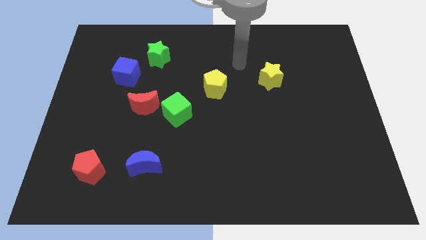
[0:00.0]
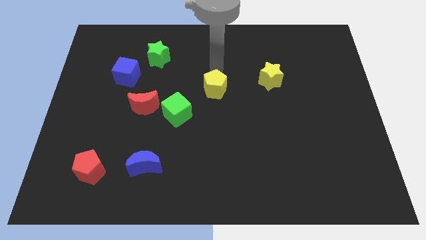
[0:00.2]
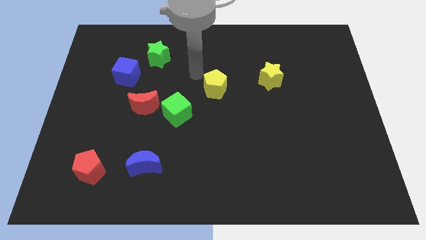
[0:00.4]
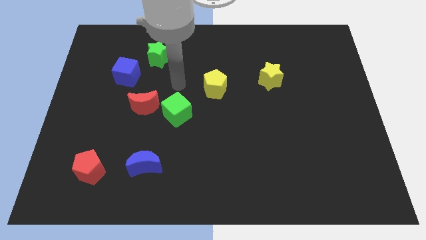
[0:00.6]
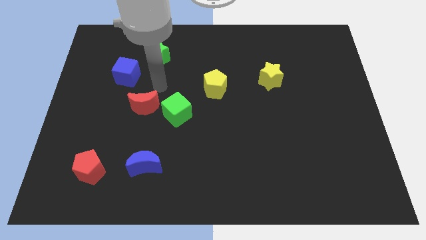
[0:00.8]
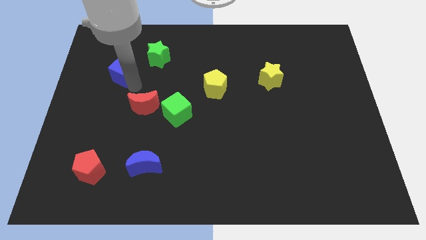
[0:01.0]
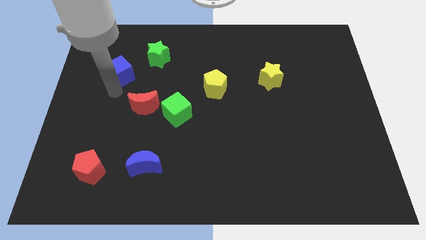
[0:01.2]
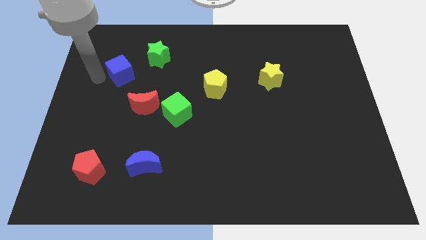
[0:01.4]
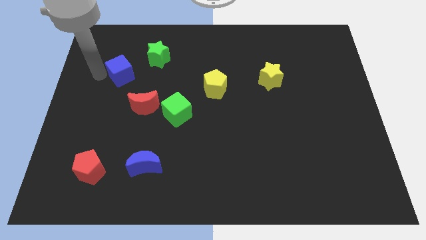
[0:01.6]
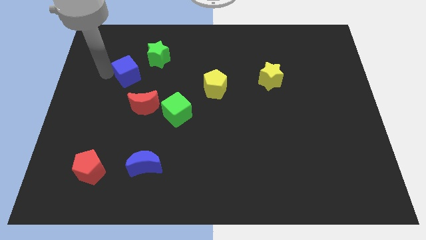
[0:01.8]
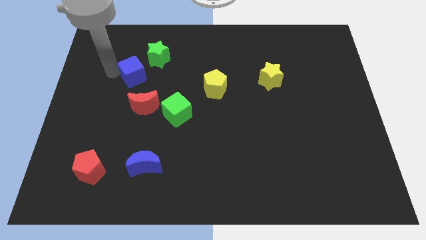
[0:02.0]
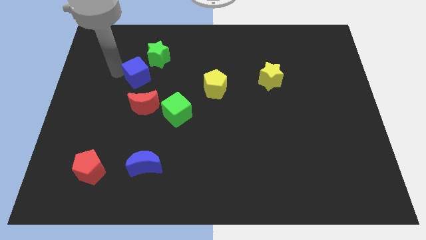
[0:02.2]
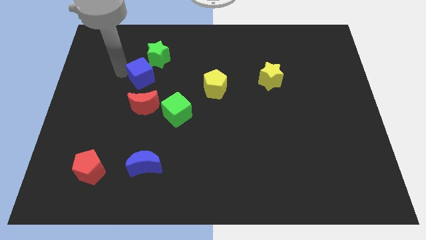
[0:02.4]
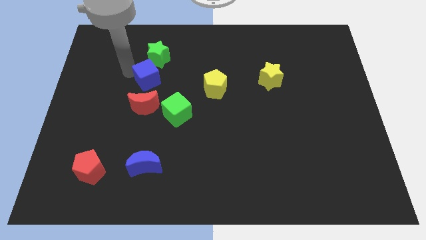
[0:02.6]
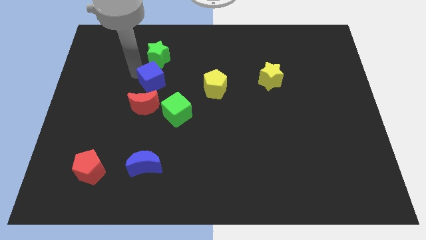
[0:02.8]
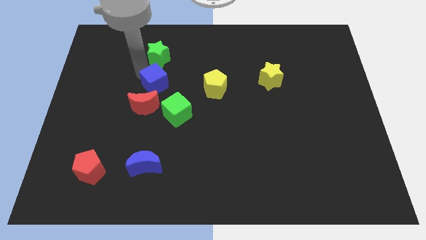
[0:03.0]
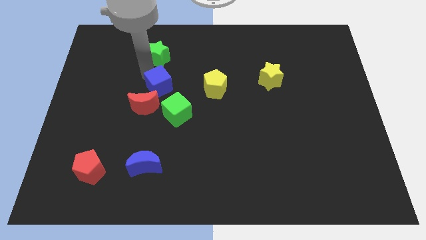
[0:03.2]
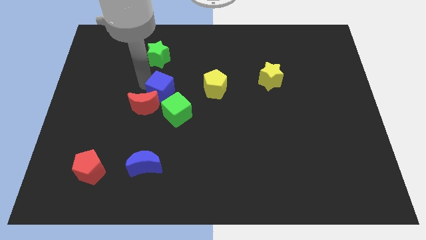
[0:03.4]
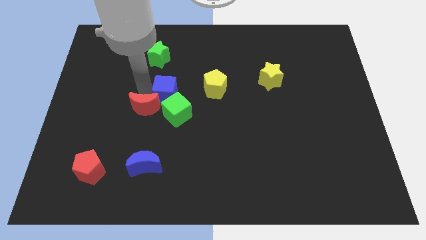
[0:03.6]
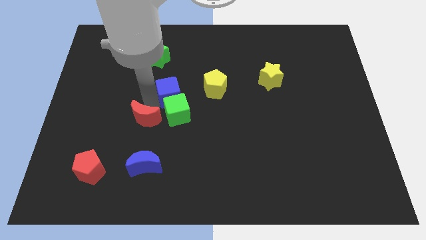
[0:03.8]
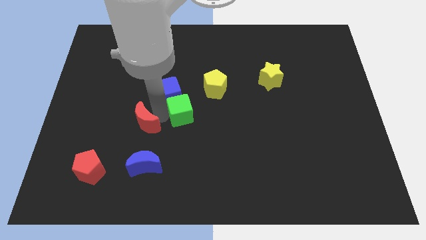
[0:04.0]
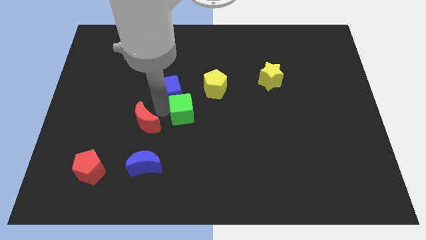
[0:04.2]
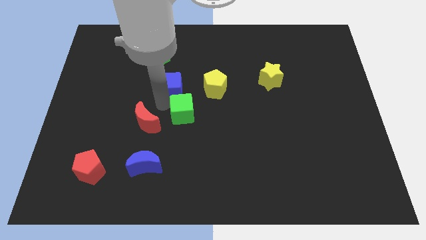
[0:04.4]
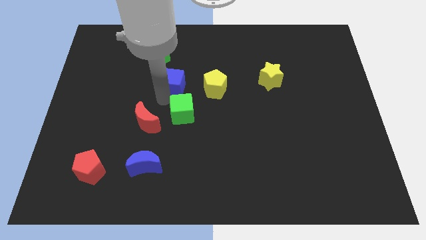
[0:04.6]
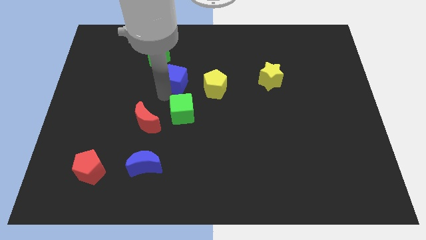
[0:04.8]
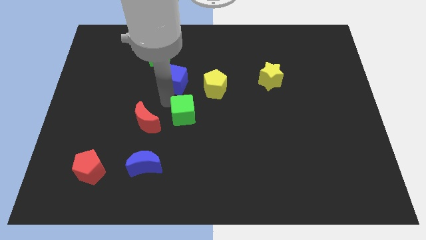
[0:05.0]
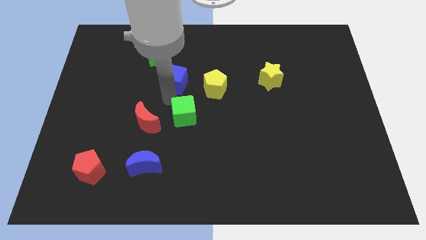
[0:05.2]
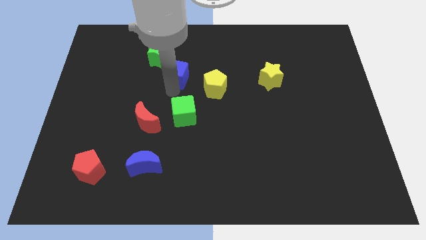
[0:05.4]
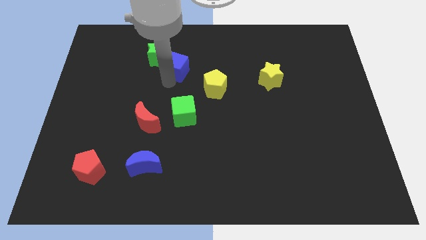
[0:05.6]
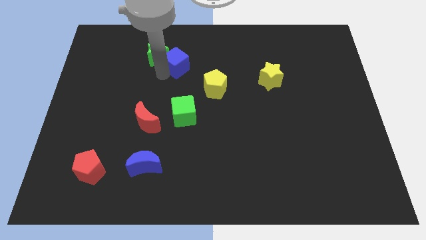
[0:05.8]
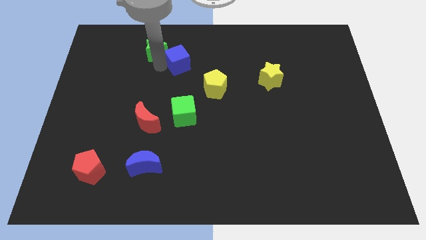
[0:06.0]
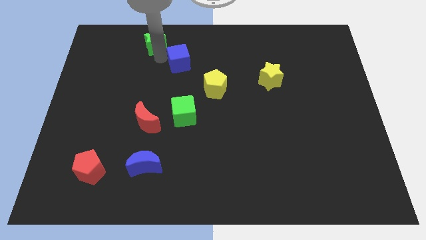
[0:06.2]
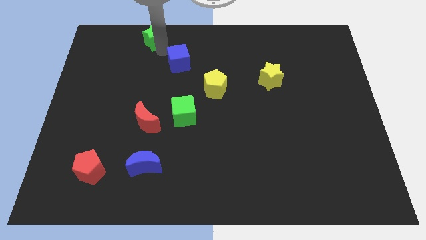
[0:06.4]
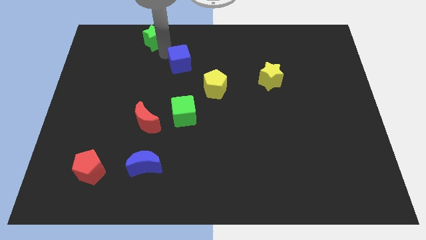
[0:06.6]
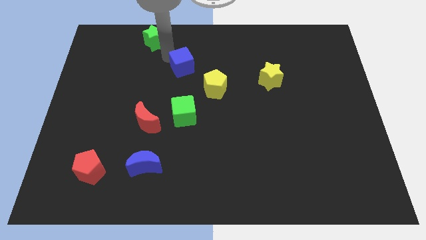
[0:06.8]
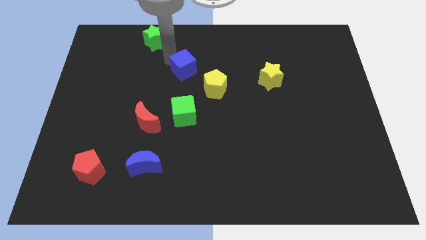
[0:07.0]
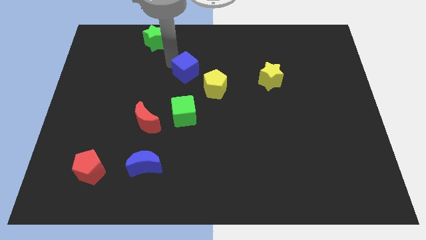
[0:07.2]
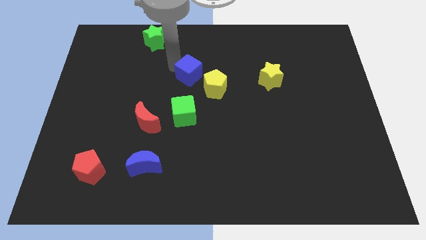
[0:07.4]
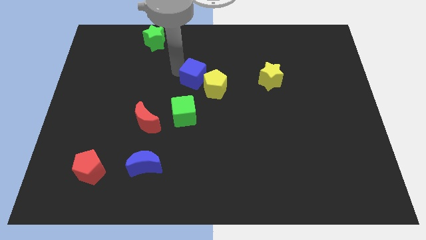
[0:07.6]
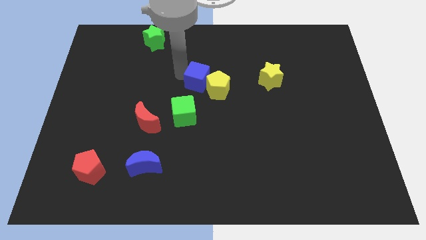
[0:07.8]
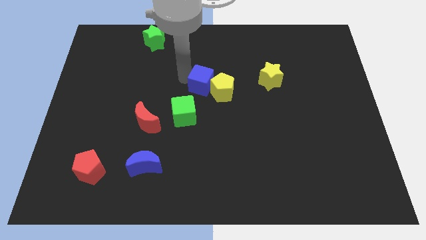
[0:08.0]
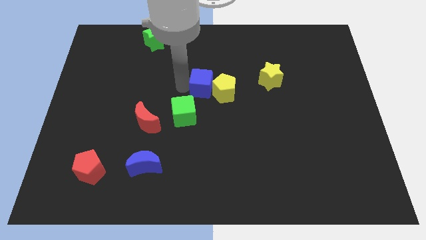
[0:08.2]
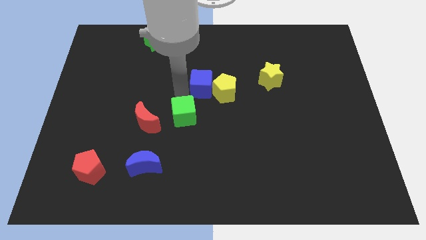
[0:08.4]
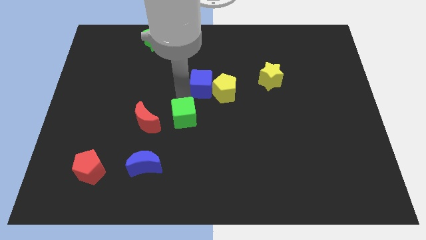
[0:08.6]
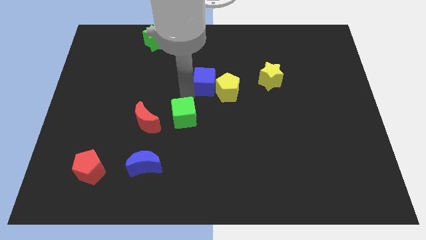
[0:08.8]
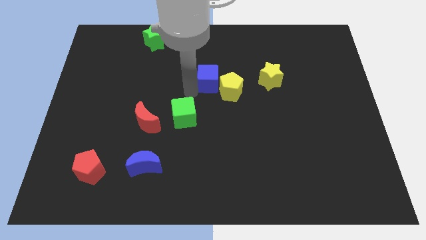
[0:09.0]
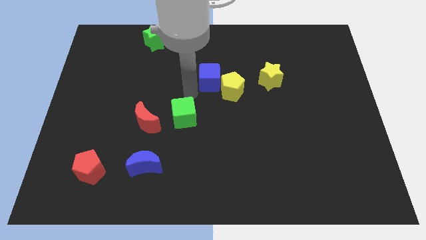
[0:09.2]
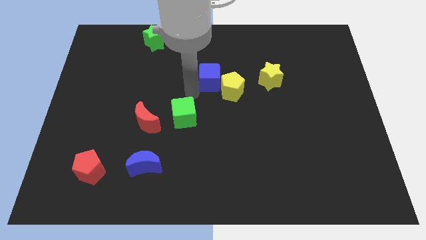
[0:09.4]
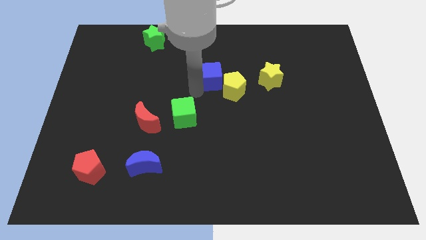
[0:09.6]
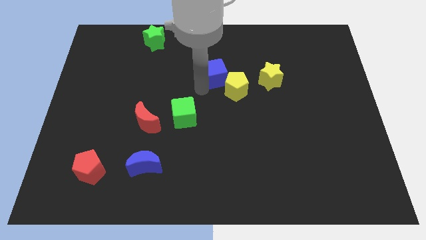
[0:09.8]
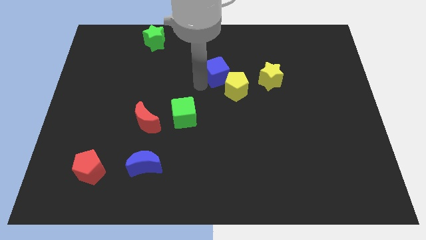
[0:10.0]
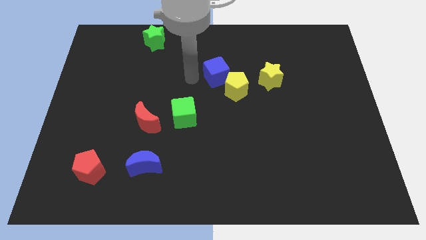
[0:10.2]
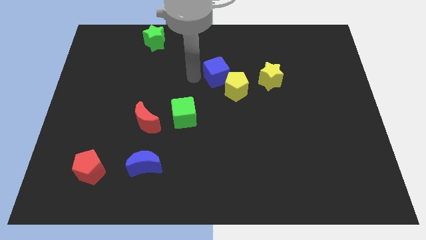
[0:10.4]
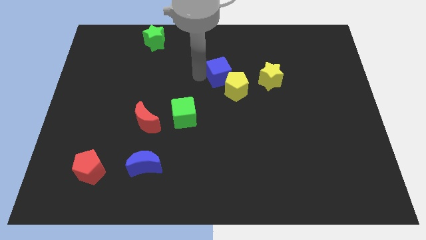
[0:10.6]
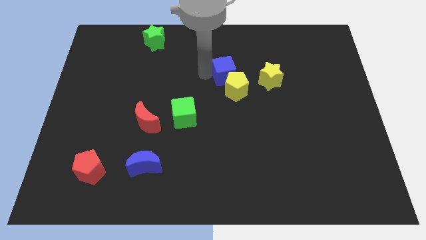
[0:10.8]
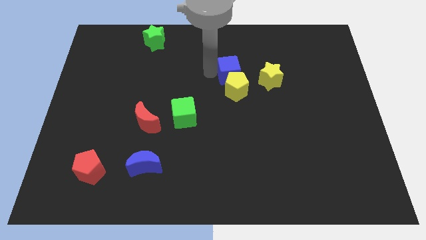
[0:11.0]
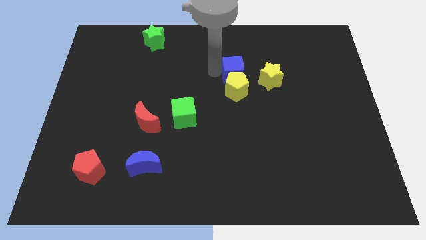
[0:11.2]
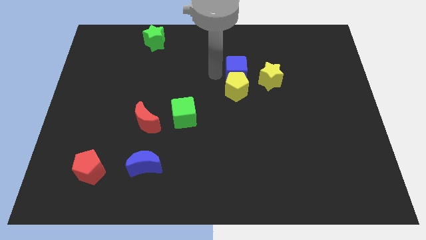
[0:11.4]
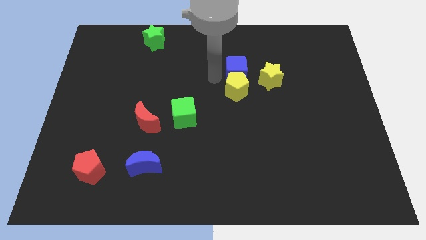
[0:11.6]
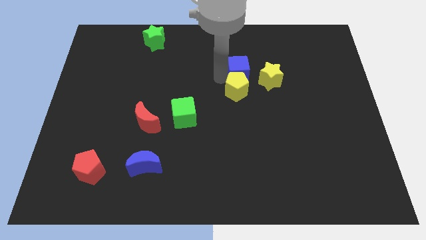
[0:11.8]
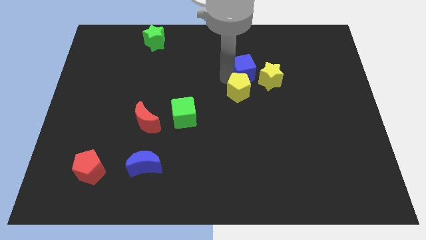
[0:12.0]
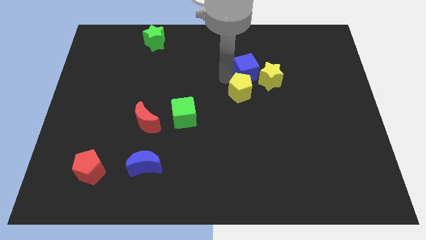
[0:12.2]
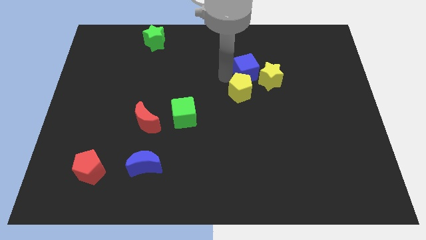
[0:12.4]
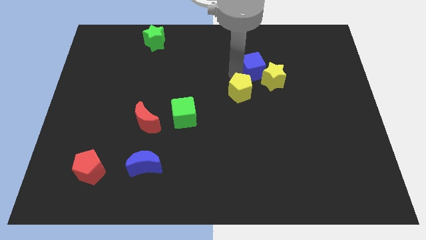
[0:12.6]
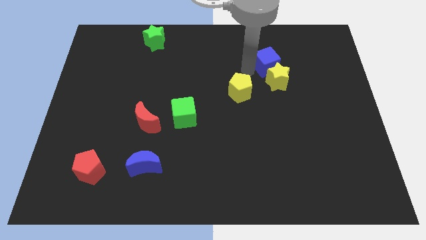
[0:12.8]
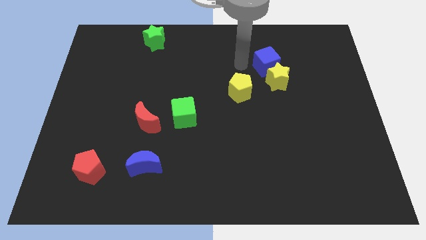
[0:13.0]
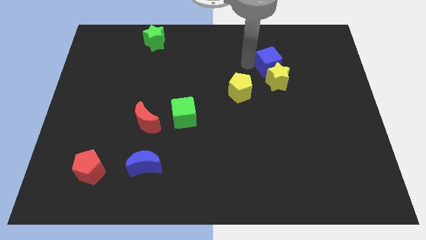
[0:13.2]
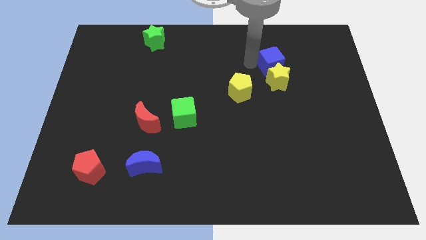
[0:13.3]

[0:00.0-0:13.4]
put the blue cube diagonally up and to the right of the yellow star
